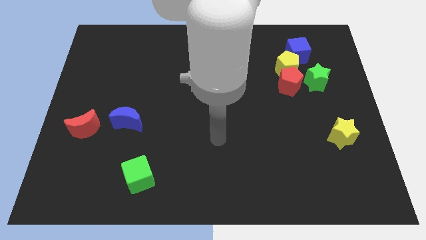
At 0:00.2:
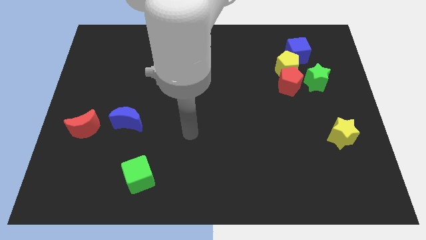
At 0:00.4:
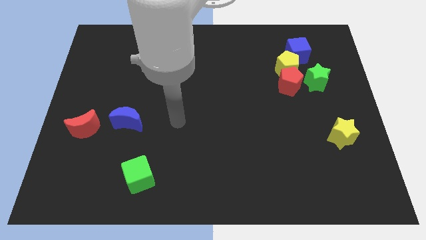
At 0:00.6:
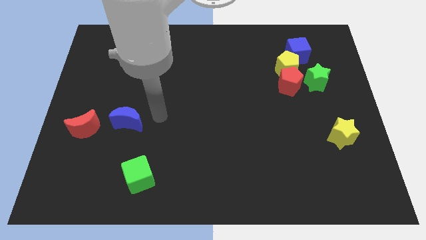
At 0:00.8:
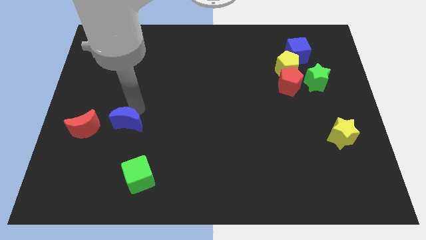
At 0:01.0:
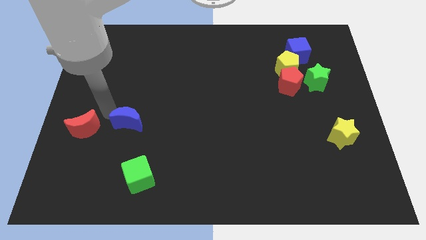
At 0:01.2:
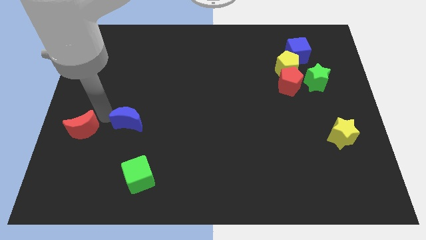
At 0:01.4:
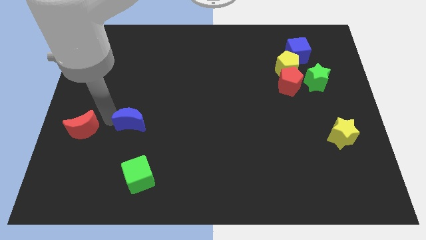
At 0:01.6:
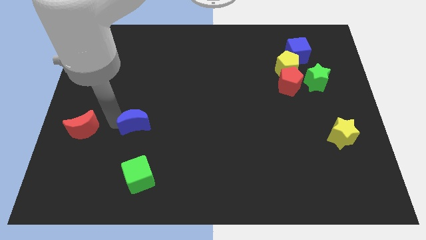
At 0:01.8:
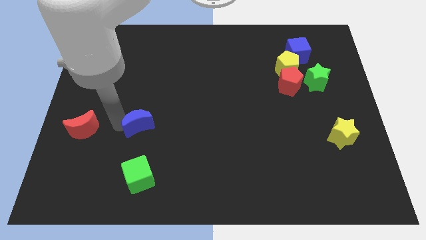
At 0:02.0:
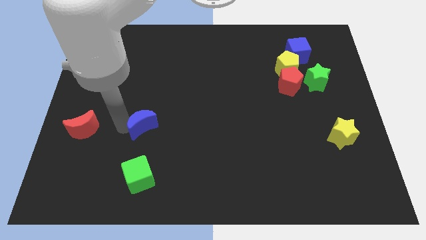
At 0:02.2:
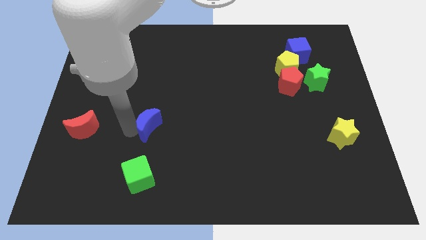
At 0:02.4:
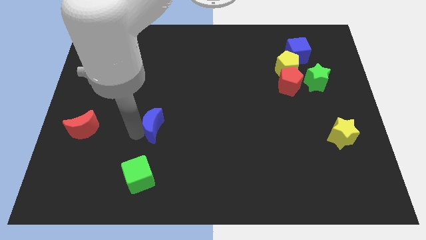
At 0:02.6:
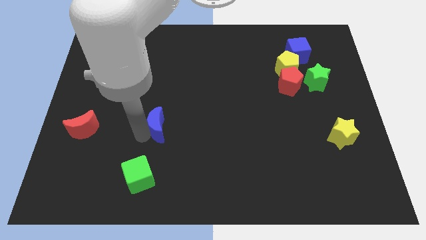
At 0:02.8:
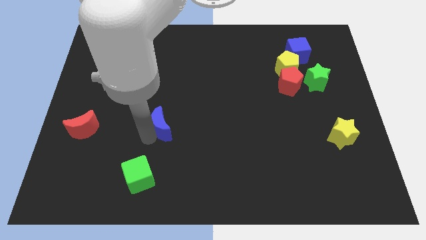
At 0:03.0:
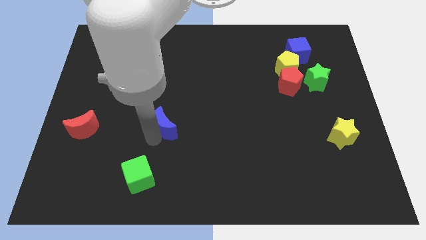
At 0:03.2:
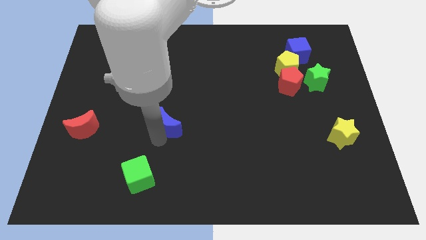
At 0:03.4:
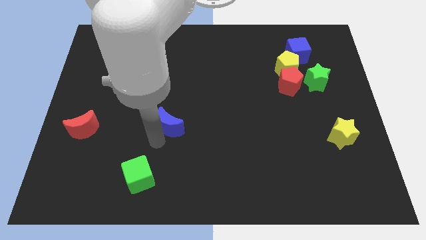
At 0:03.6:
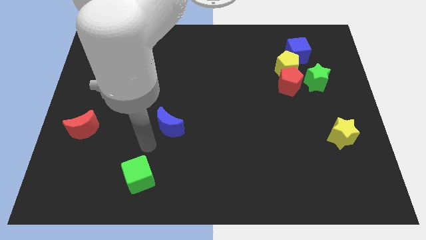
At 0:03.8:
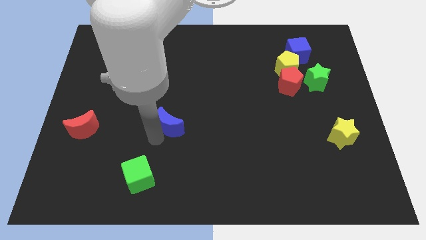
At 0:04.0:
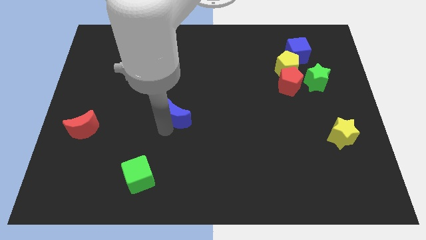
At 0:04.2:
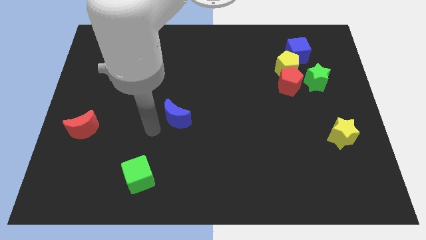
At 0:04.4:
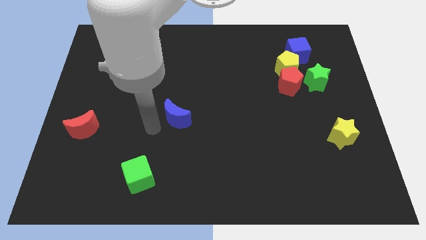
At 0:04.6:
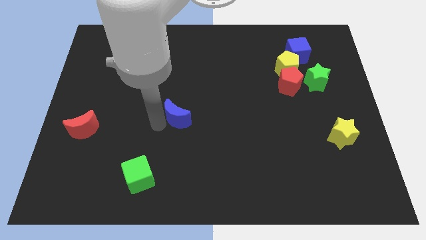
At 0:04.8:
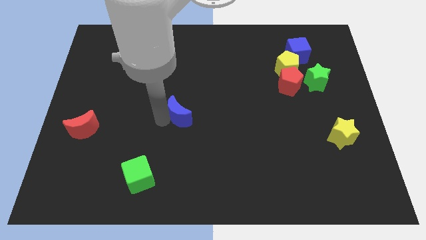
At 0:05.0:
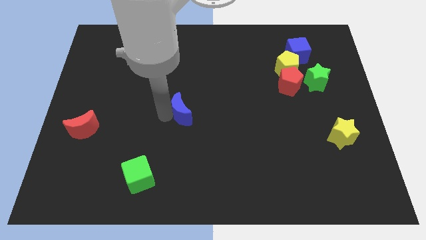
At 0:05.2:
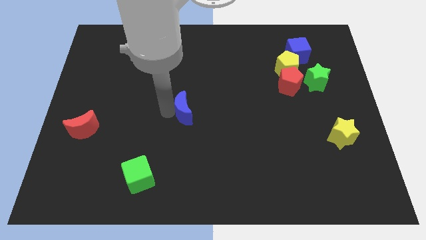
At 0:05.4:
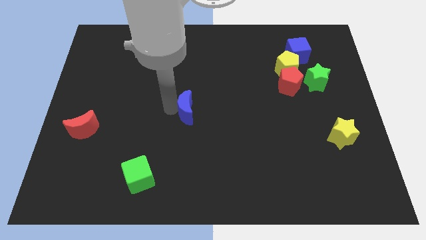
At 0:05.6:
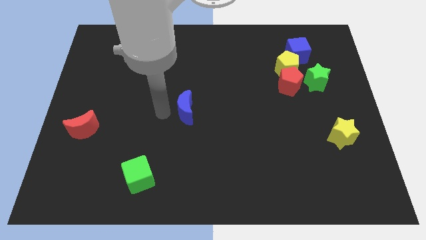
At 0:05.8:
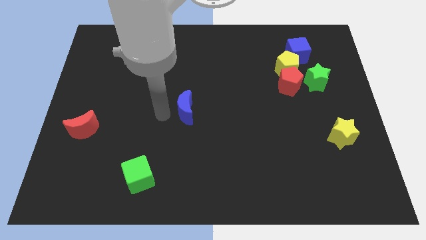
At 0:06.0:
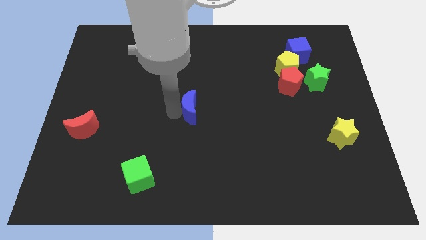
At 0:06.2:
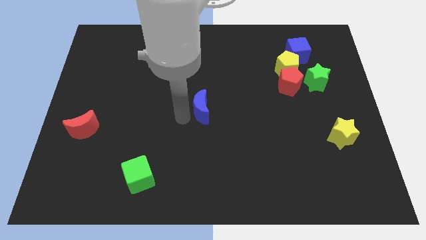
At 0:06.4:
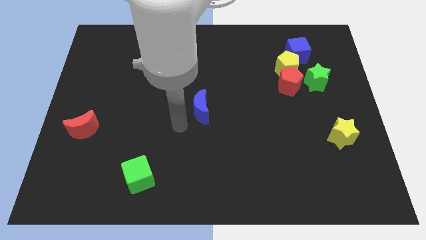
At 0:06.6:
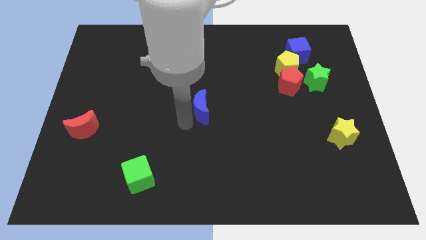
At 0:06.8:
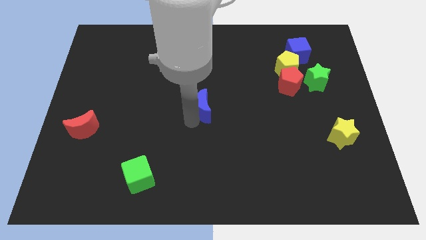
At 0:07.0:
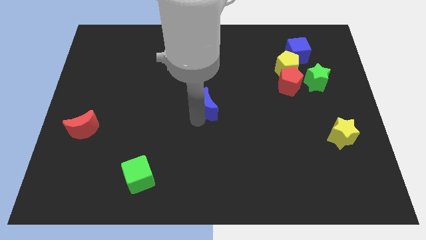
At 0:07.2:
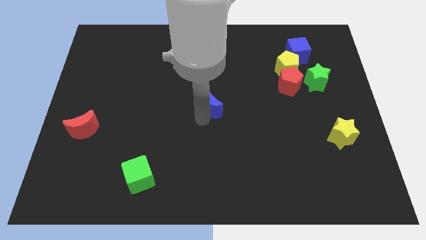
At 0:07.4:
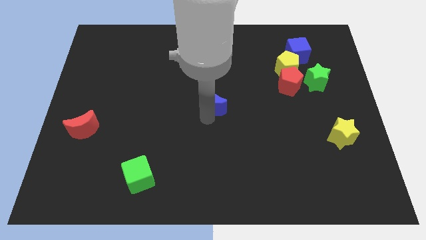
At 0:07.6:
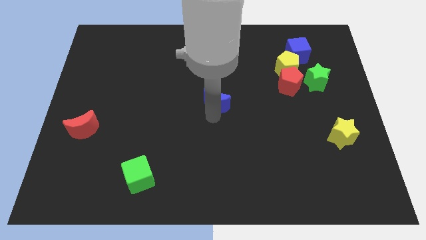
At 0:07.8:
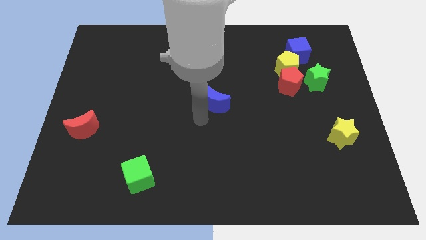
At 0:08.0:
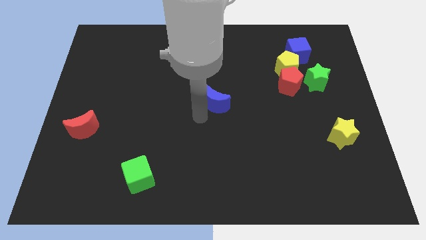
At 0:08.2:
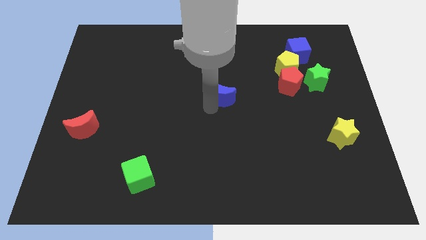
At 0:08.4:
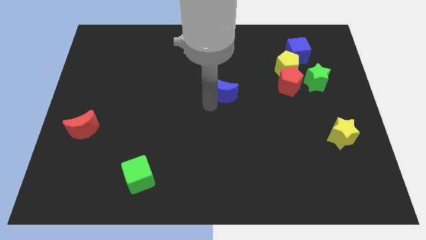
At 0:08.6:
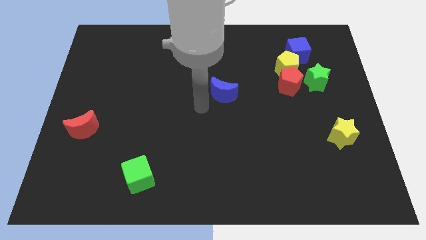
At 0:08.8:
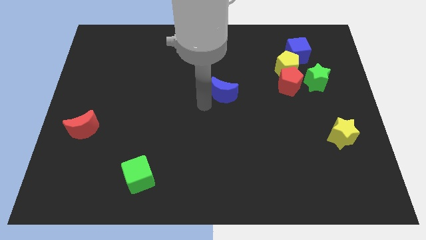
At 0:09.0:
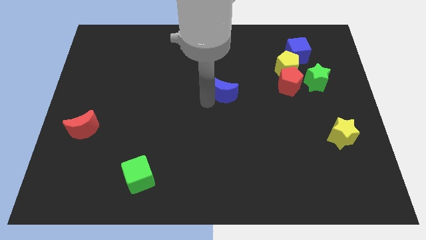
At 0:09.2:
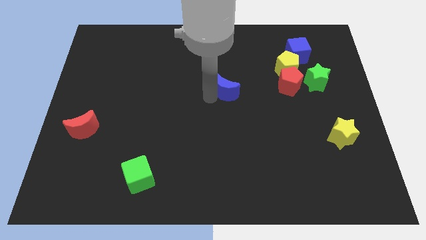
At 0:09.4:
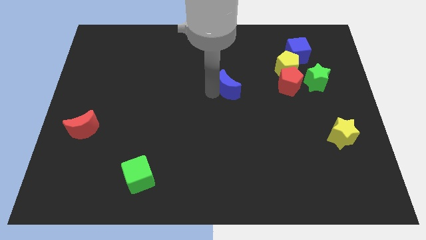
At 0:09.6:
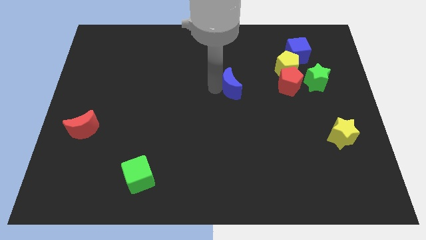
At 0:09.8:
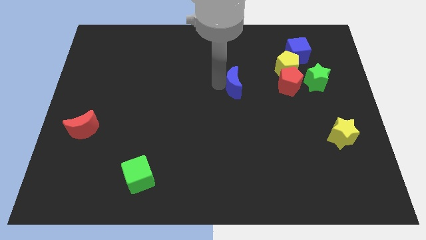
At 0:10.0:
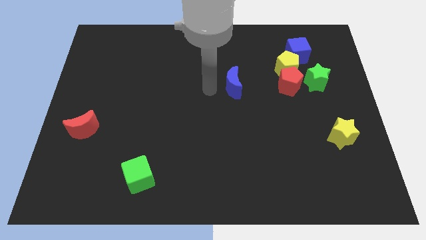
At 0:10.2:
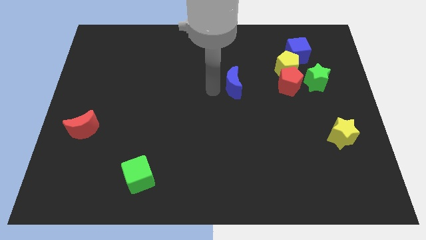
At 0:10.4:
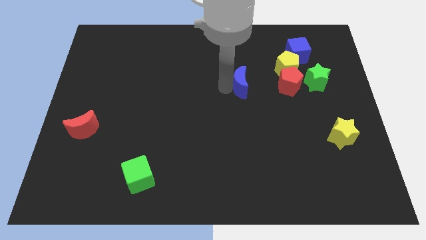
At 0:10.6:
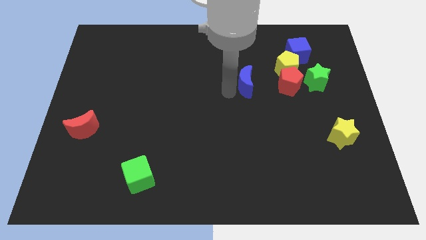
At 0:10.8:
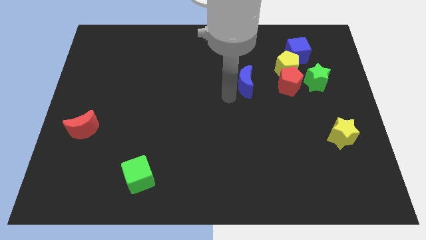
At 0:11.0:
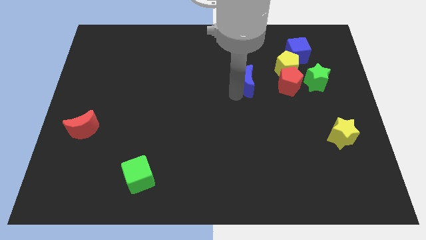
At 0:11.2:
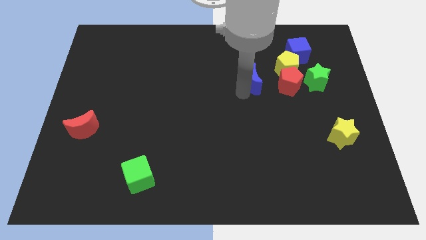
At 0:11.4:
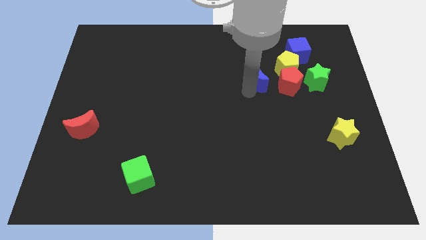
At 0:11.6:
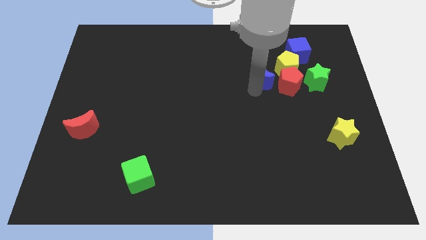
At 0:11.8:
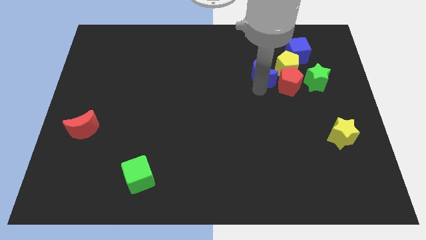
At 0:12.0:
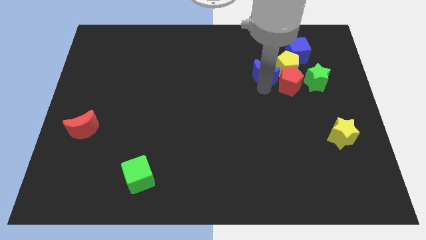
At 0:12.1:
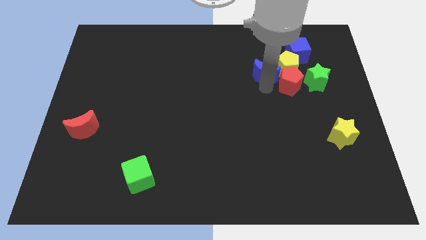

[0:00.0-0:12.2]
put the blue moon close to the yellow pentagon

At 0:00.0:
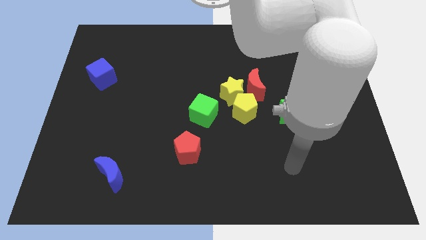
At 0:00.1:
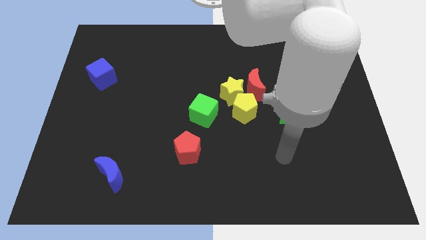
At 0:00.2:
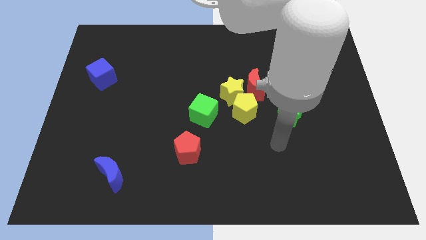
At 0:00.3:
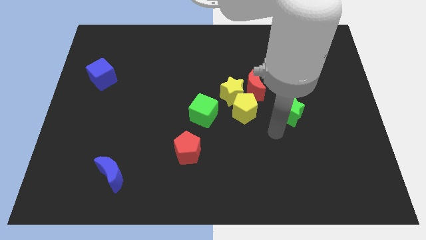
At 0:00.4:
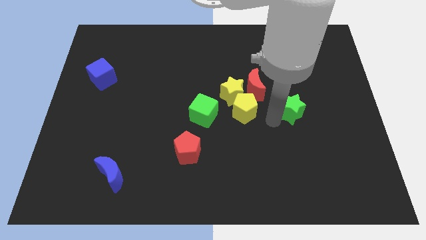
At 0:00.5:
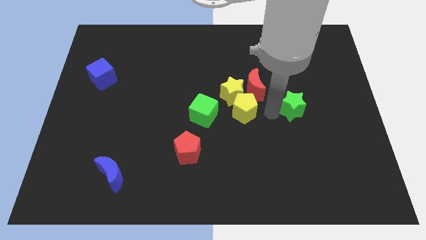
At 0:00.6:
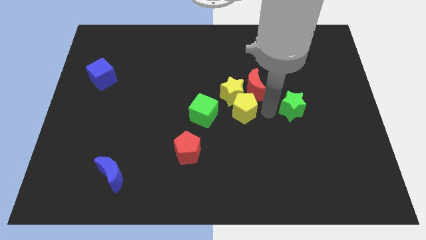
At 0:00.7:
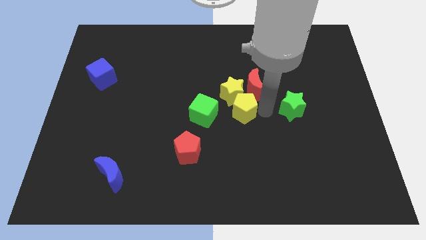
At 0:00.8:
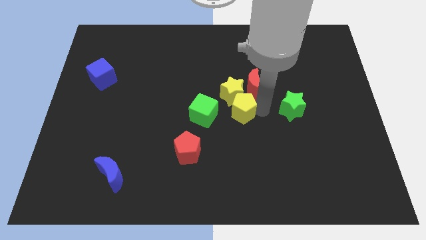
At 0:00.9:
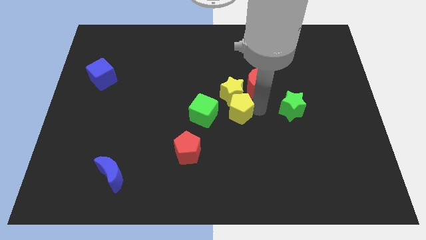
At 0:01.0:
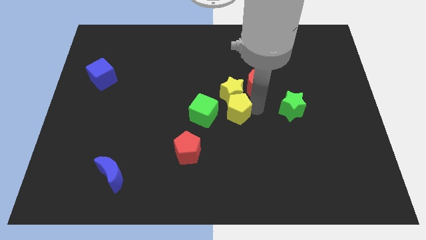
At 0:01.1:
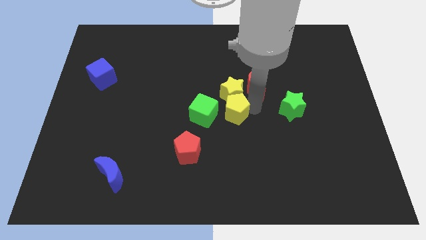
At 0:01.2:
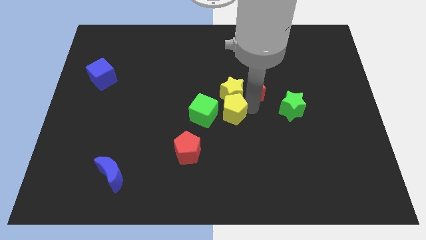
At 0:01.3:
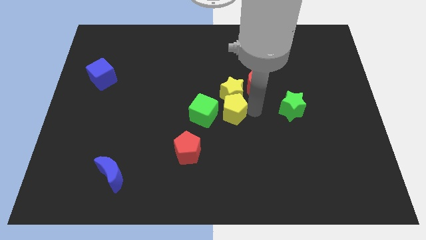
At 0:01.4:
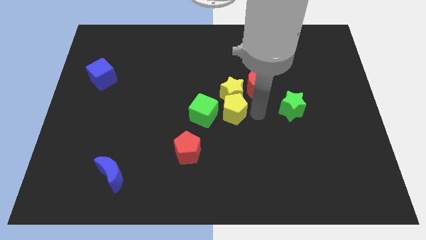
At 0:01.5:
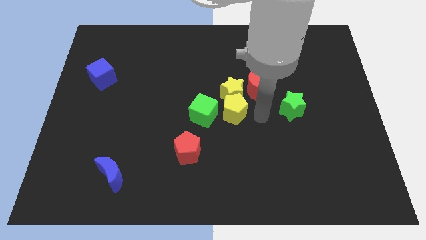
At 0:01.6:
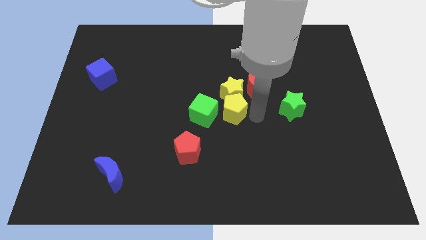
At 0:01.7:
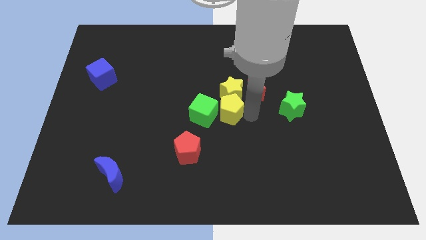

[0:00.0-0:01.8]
move the yellow pentagon towards the green cube

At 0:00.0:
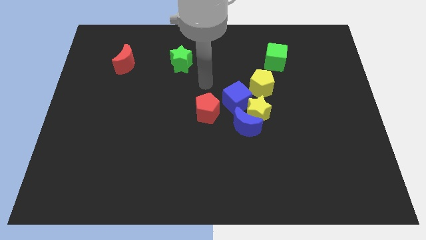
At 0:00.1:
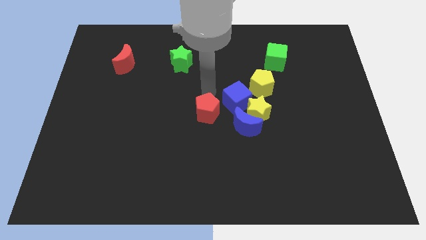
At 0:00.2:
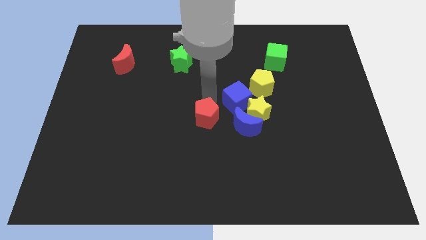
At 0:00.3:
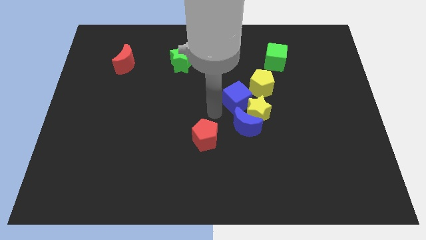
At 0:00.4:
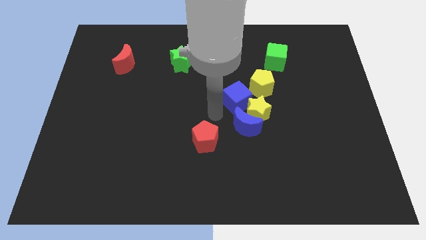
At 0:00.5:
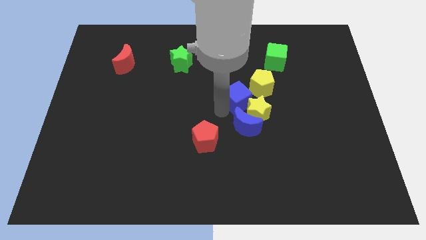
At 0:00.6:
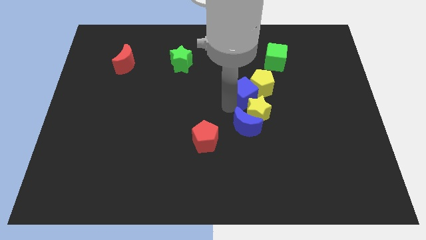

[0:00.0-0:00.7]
put the blue cube to the yellow pentagon
